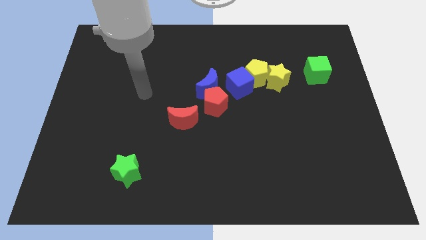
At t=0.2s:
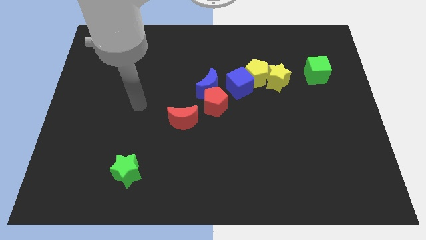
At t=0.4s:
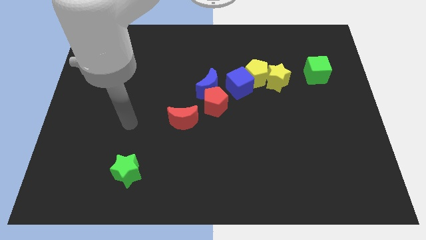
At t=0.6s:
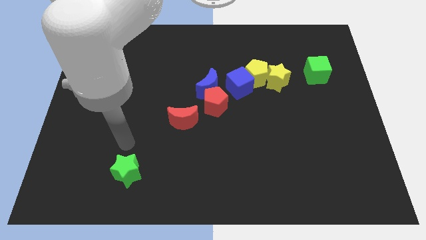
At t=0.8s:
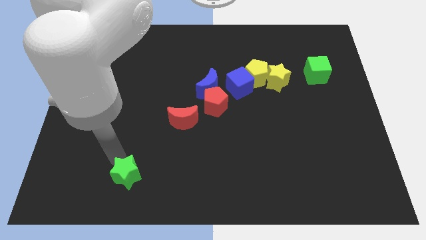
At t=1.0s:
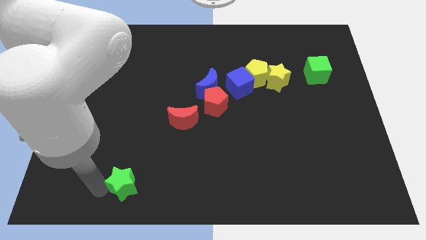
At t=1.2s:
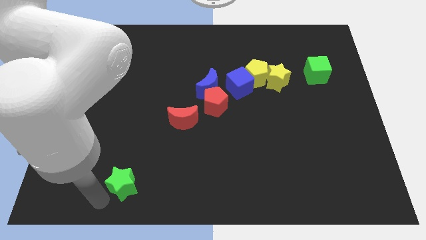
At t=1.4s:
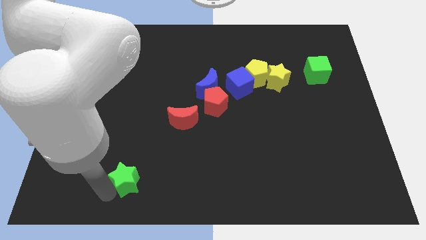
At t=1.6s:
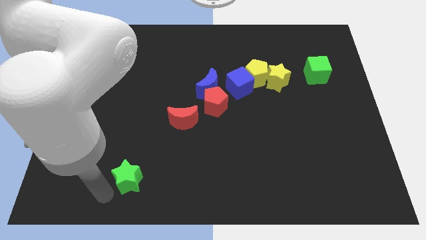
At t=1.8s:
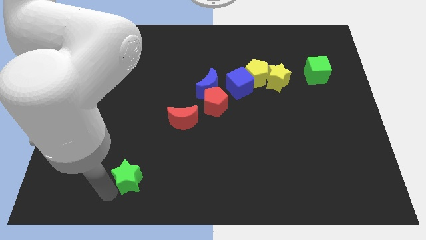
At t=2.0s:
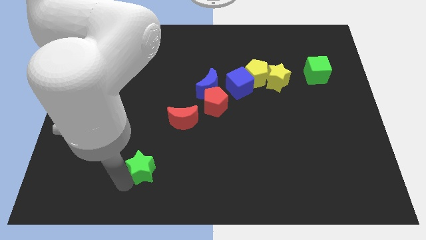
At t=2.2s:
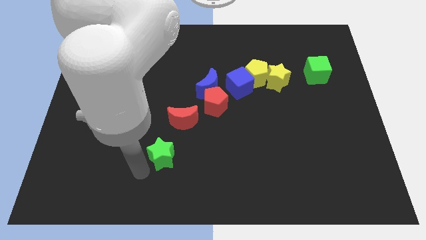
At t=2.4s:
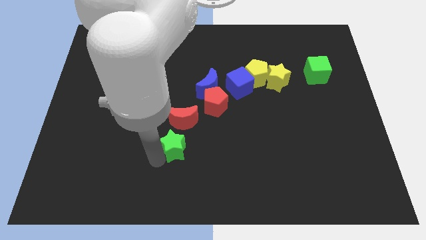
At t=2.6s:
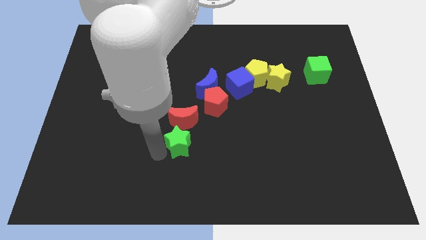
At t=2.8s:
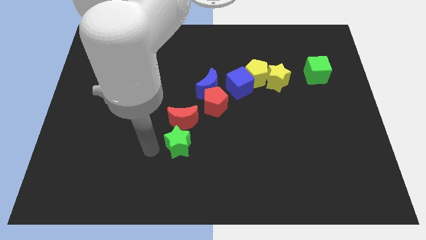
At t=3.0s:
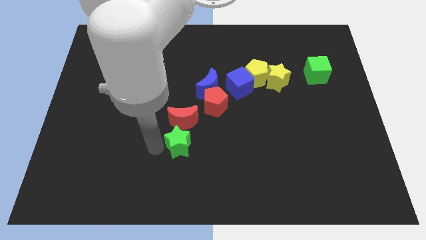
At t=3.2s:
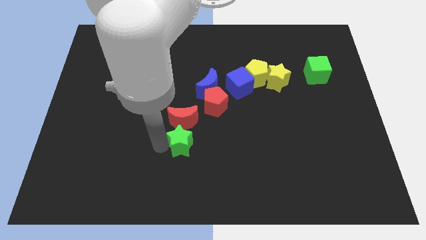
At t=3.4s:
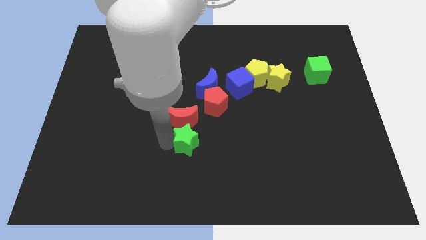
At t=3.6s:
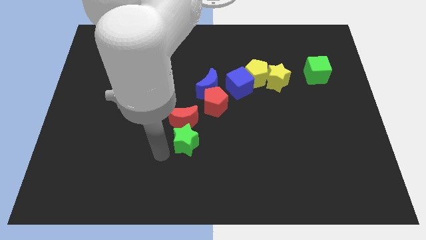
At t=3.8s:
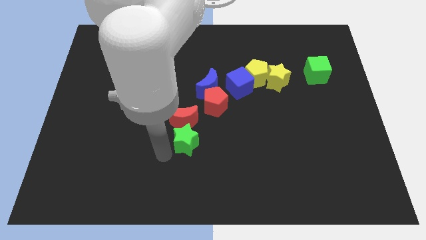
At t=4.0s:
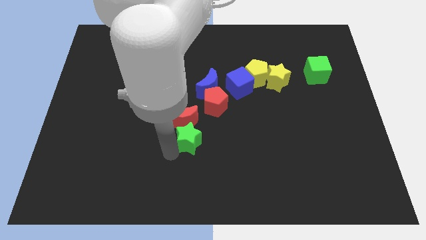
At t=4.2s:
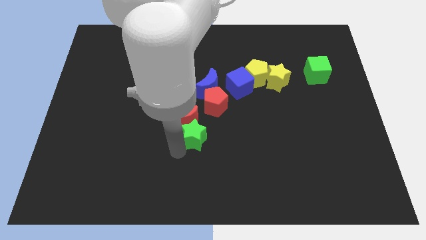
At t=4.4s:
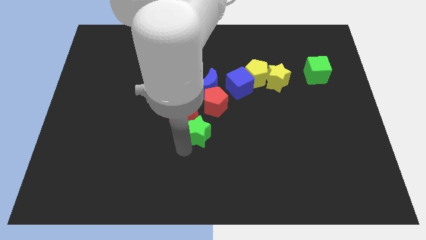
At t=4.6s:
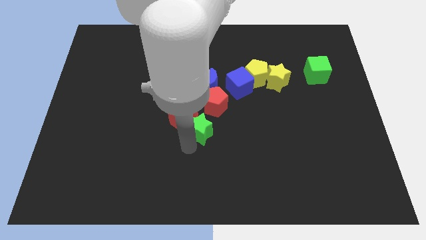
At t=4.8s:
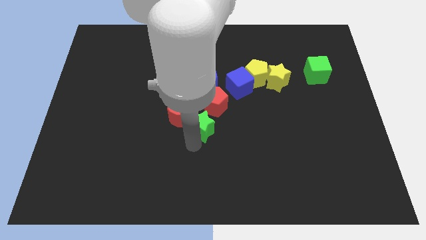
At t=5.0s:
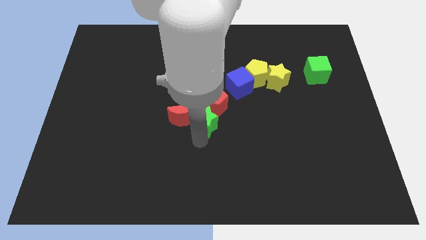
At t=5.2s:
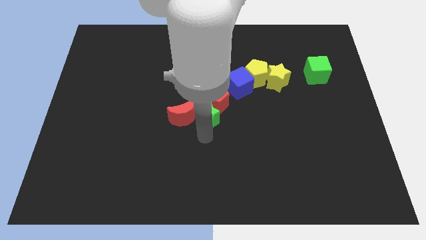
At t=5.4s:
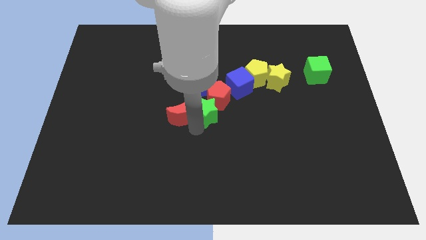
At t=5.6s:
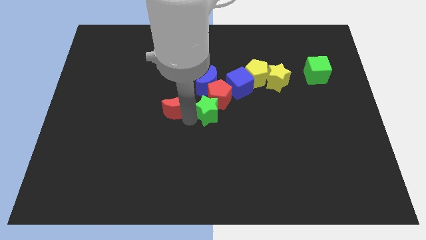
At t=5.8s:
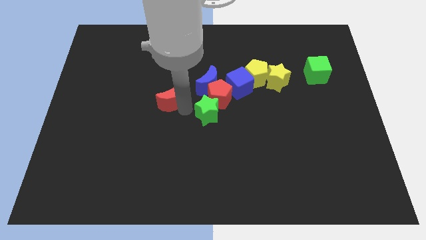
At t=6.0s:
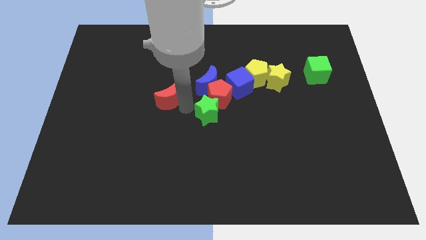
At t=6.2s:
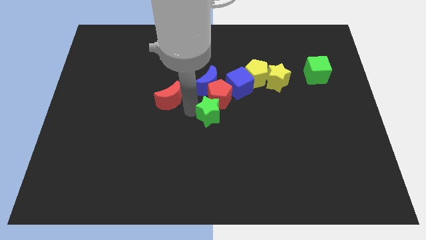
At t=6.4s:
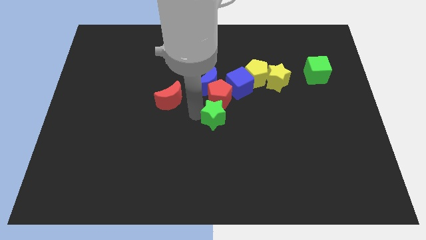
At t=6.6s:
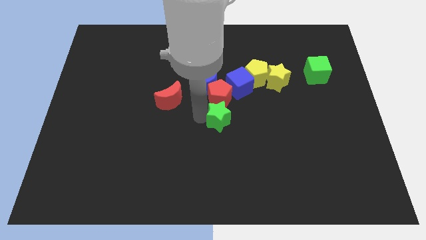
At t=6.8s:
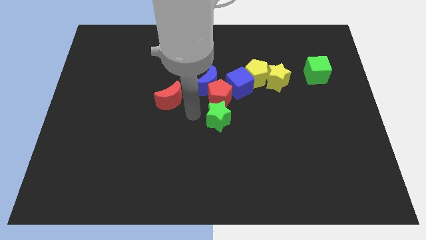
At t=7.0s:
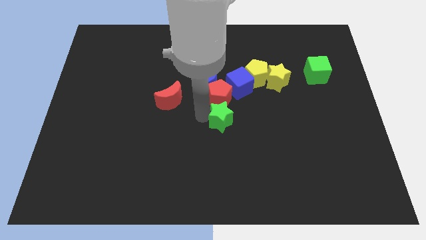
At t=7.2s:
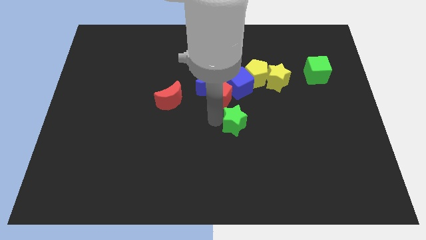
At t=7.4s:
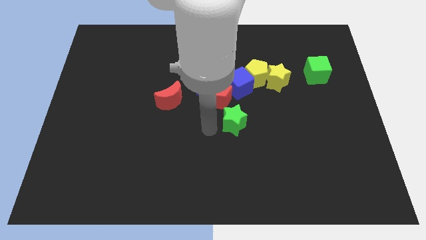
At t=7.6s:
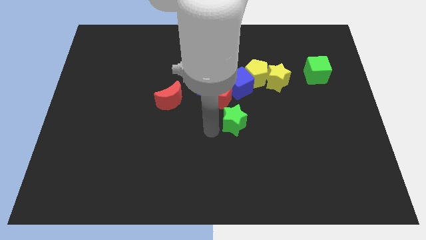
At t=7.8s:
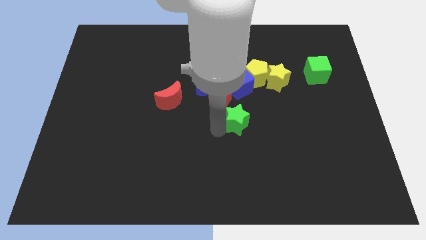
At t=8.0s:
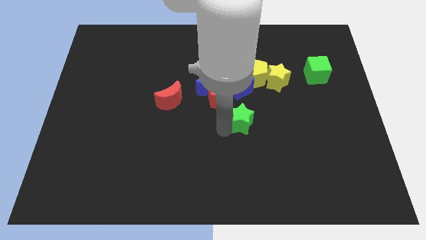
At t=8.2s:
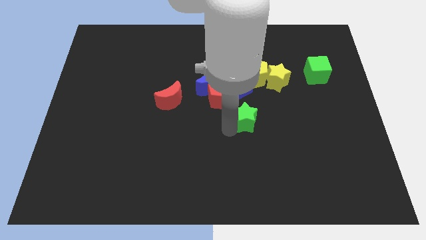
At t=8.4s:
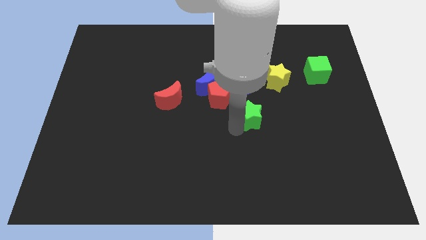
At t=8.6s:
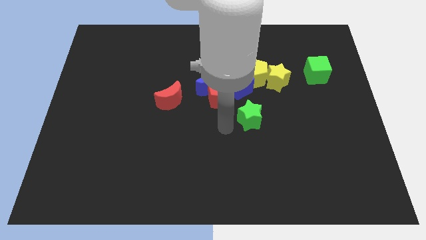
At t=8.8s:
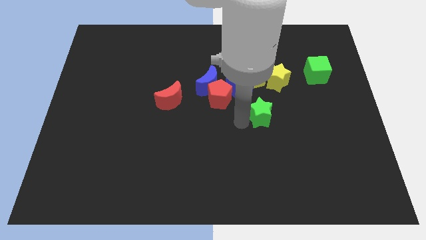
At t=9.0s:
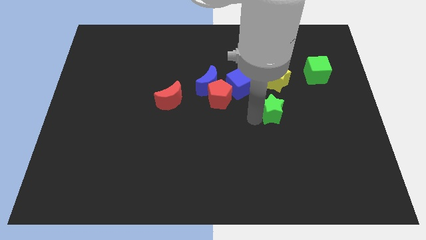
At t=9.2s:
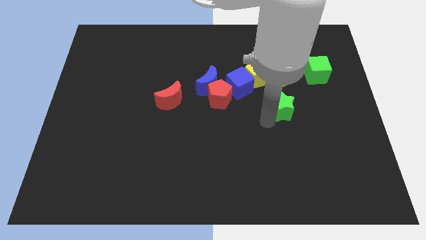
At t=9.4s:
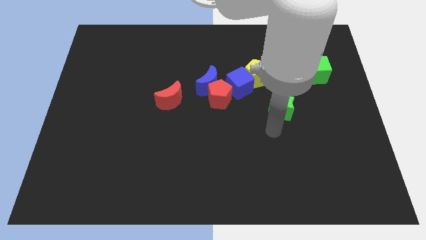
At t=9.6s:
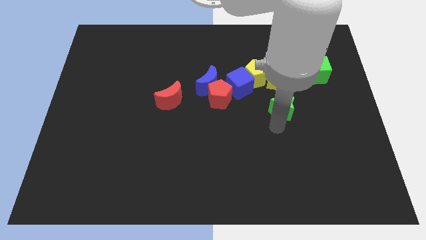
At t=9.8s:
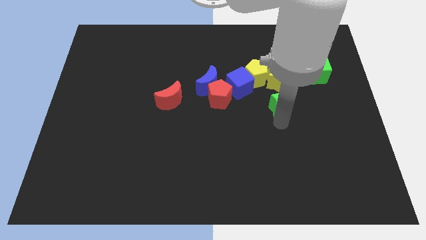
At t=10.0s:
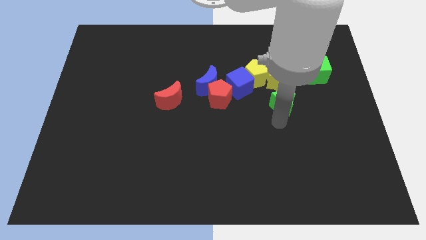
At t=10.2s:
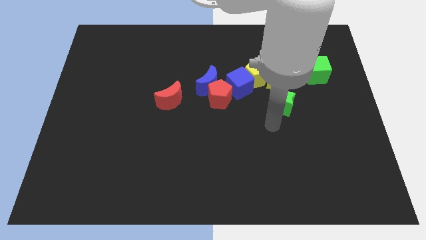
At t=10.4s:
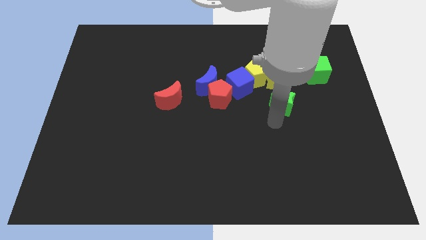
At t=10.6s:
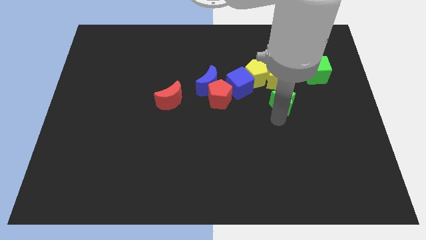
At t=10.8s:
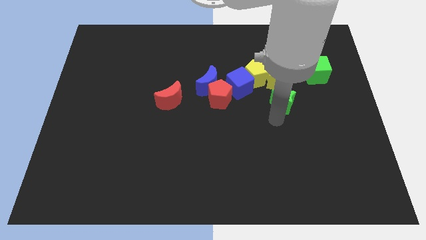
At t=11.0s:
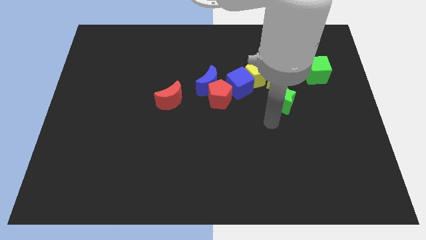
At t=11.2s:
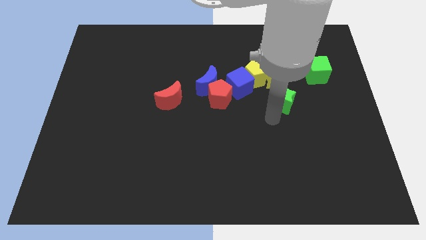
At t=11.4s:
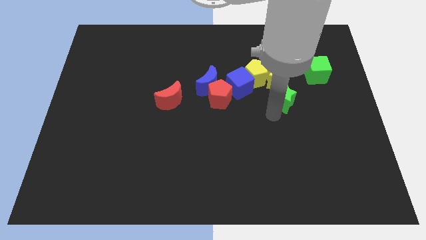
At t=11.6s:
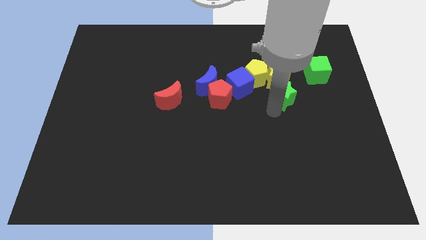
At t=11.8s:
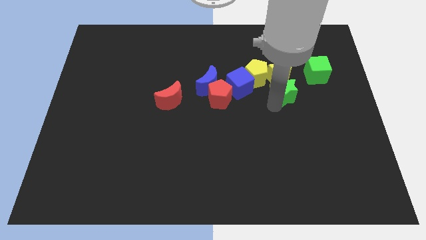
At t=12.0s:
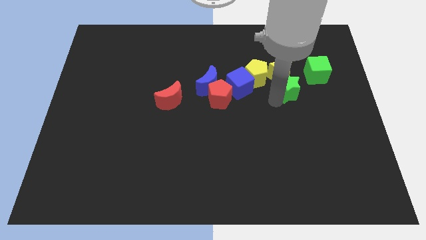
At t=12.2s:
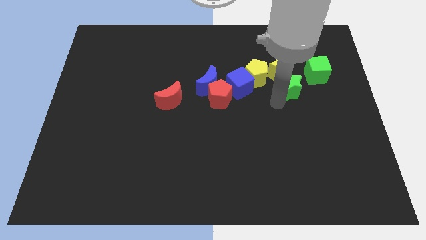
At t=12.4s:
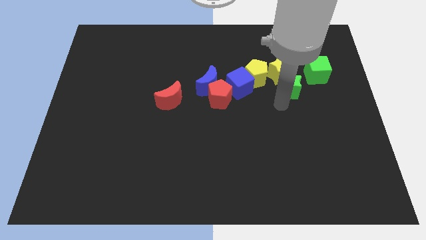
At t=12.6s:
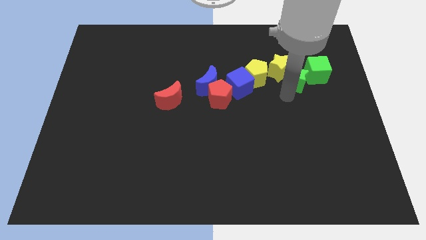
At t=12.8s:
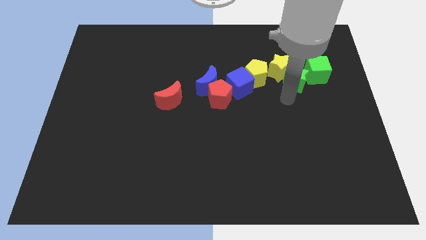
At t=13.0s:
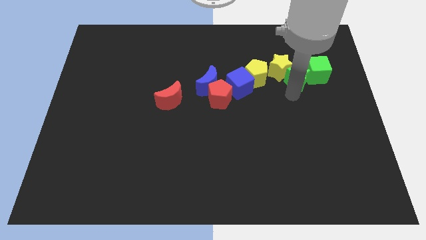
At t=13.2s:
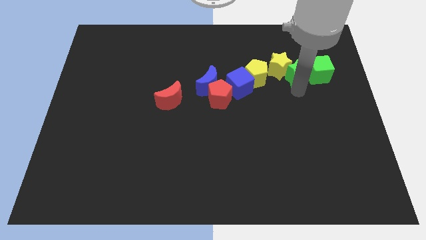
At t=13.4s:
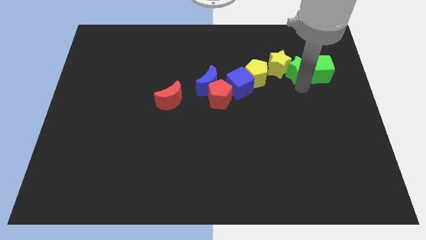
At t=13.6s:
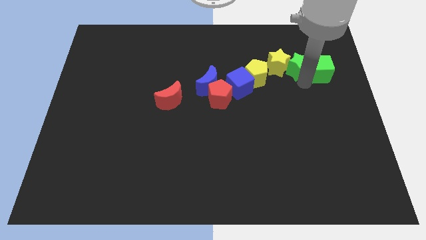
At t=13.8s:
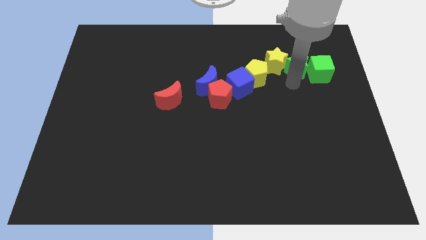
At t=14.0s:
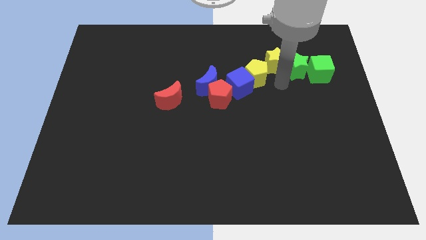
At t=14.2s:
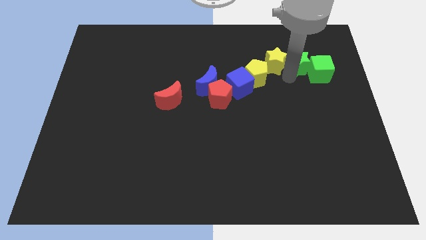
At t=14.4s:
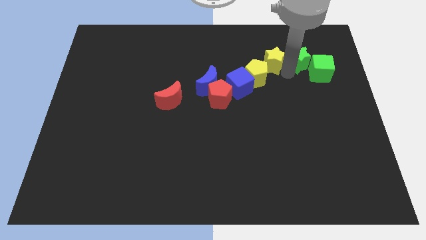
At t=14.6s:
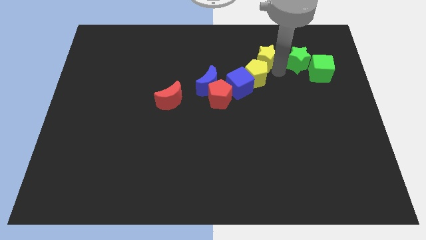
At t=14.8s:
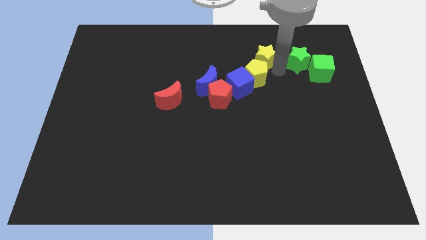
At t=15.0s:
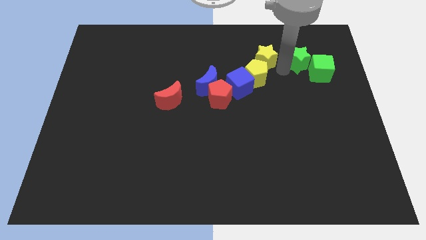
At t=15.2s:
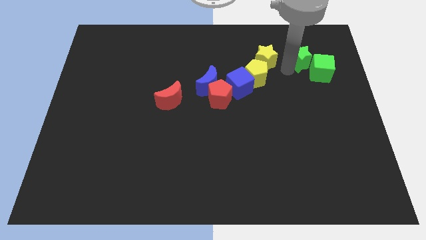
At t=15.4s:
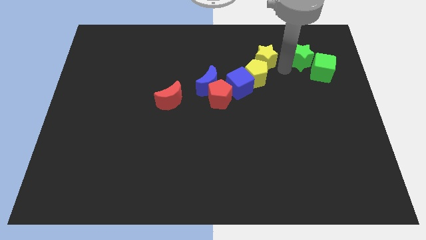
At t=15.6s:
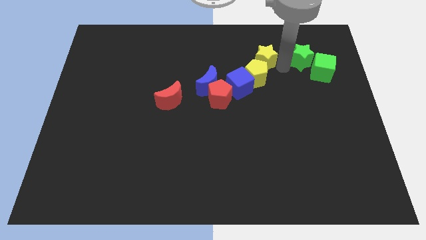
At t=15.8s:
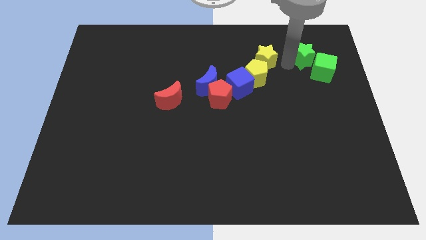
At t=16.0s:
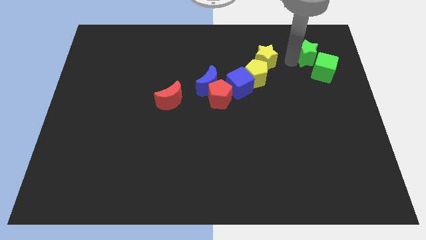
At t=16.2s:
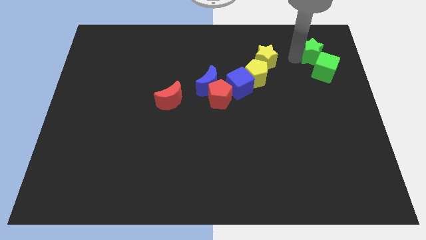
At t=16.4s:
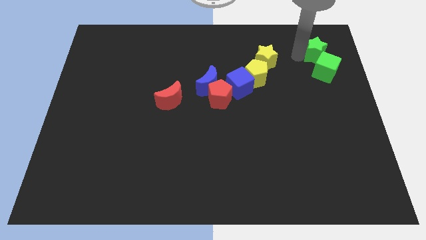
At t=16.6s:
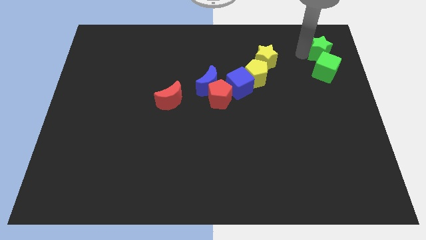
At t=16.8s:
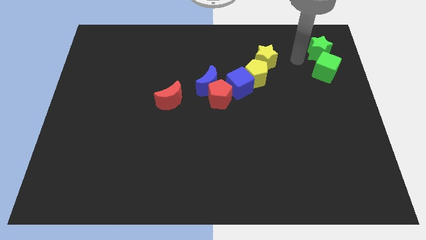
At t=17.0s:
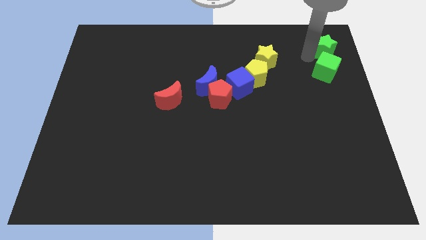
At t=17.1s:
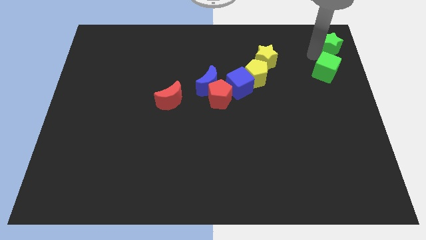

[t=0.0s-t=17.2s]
push the green star to the top right of the board
